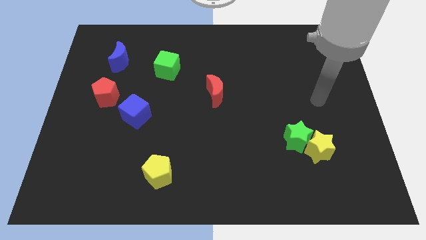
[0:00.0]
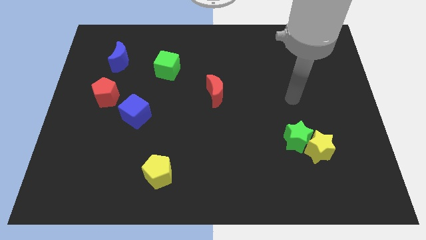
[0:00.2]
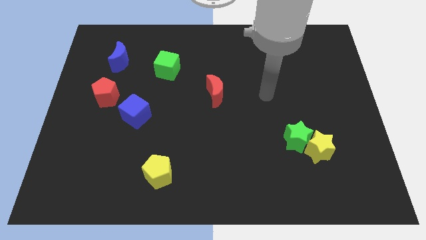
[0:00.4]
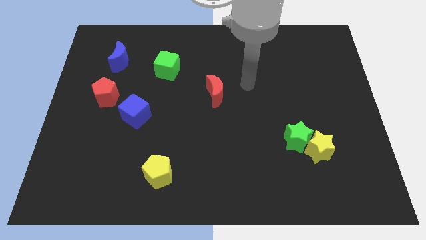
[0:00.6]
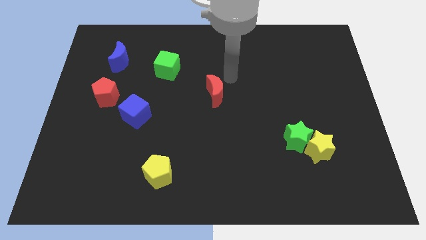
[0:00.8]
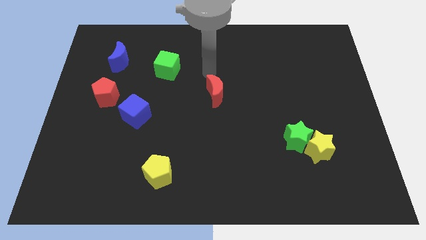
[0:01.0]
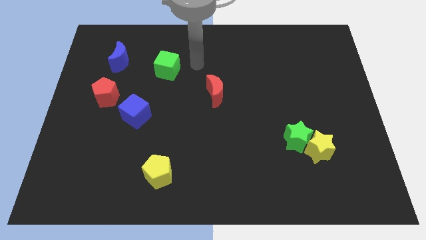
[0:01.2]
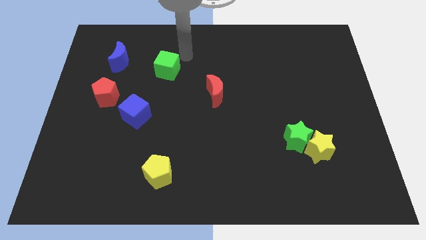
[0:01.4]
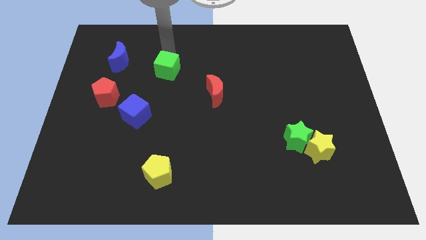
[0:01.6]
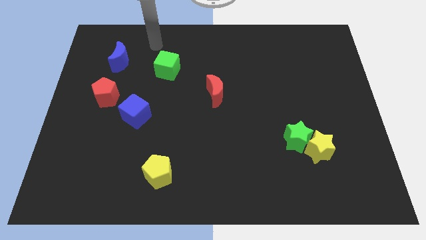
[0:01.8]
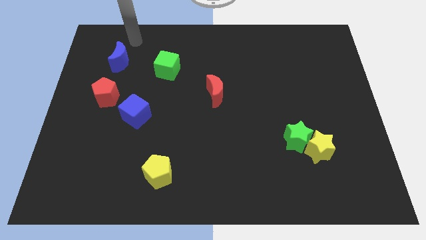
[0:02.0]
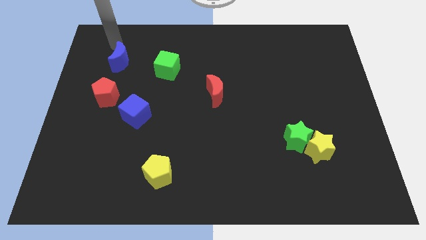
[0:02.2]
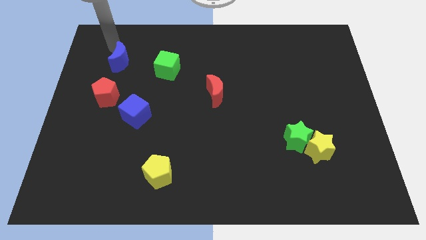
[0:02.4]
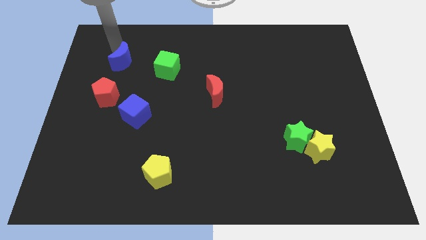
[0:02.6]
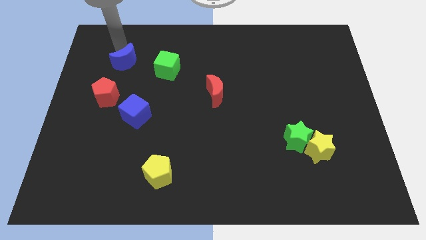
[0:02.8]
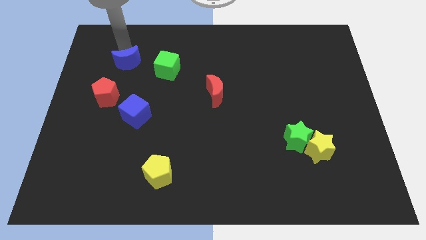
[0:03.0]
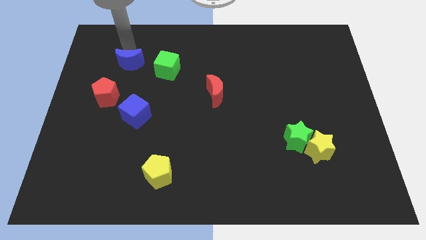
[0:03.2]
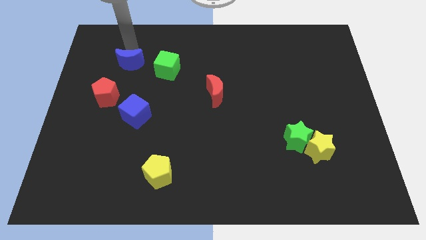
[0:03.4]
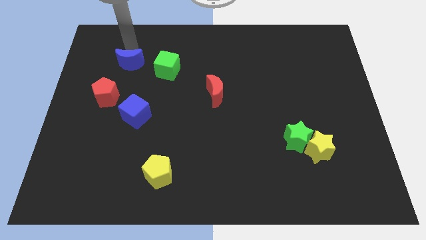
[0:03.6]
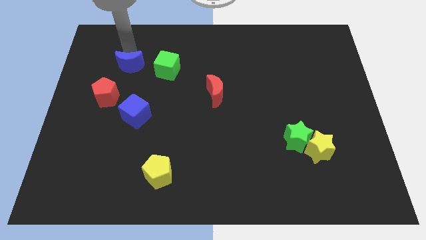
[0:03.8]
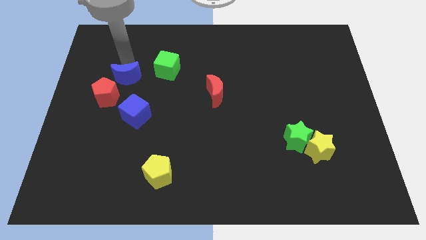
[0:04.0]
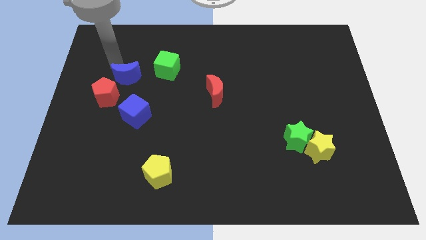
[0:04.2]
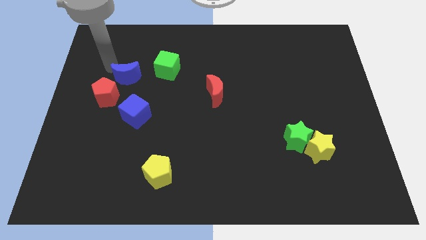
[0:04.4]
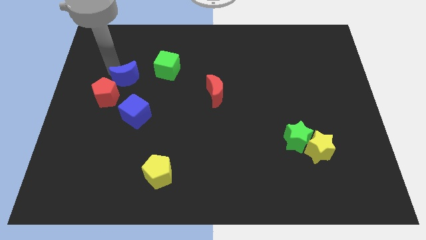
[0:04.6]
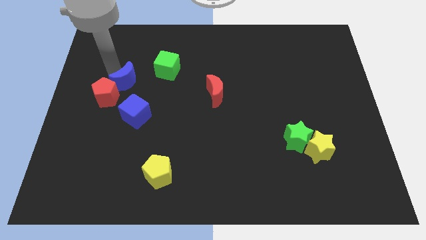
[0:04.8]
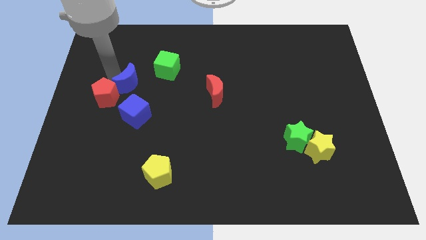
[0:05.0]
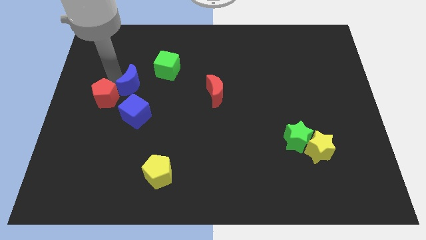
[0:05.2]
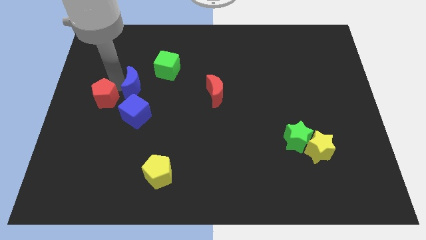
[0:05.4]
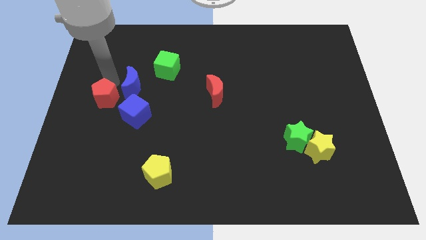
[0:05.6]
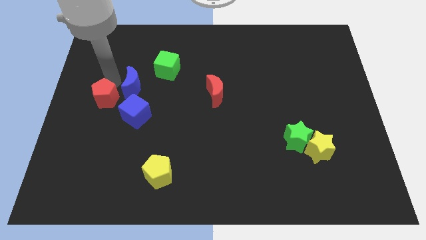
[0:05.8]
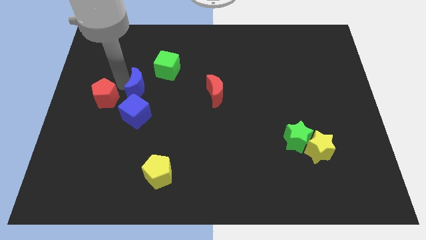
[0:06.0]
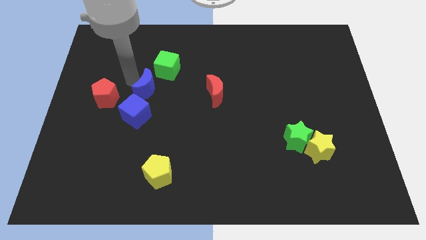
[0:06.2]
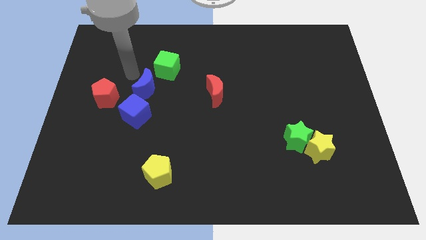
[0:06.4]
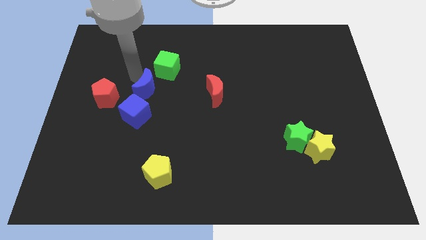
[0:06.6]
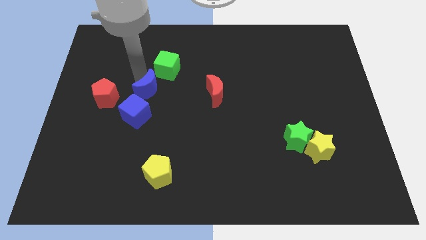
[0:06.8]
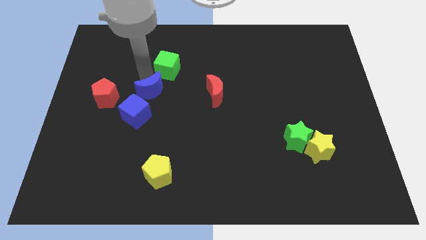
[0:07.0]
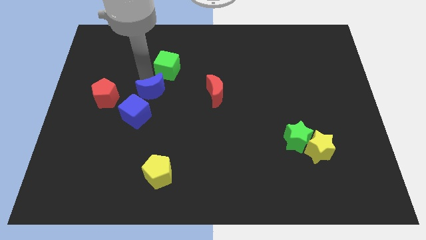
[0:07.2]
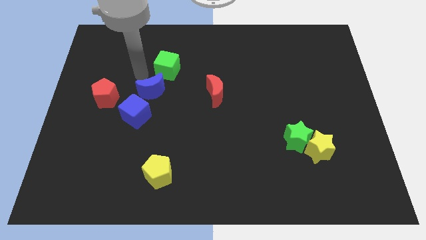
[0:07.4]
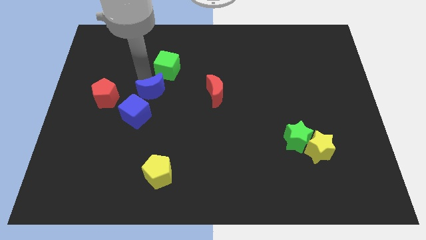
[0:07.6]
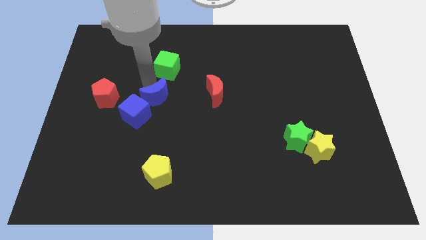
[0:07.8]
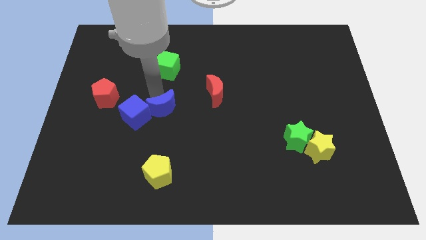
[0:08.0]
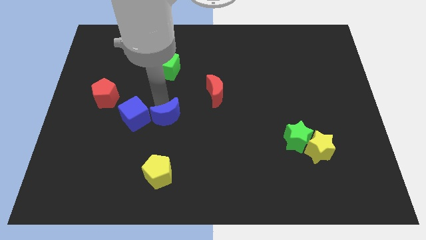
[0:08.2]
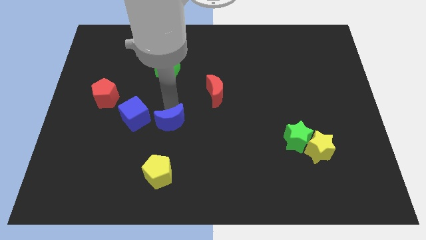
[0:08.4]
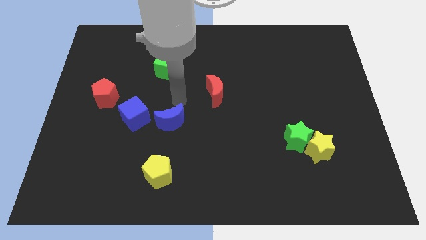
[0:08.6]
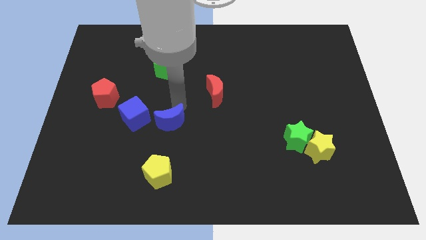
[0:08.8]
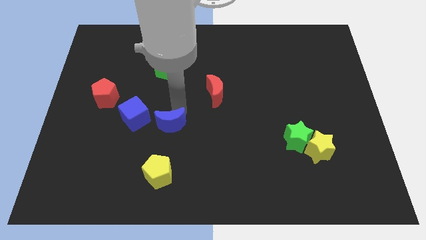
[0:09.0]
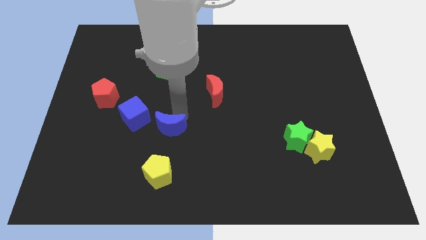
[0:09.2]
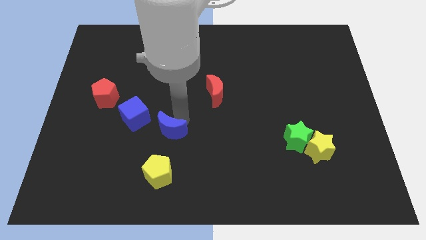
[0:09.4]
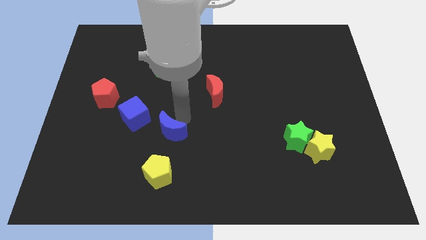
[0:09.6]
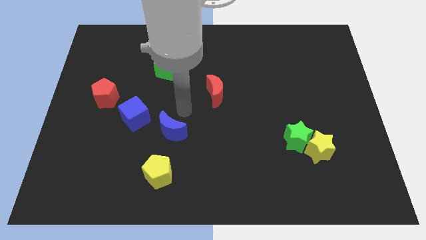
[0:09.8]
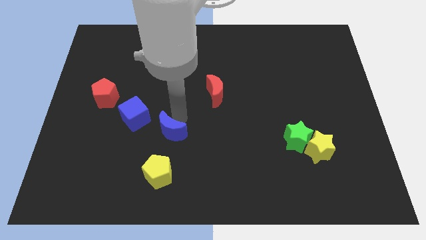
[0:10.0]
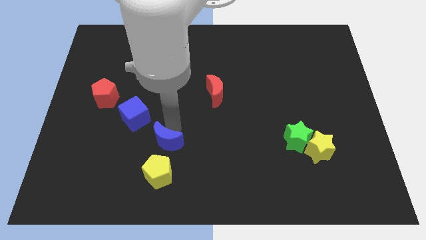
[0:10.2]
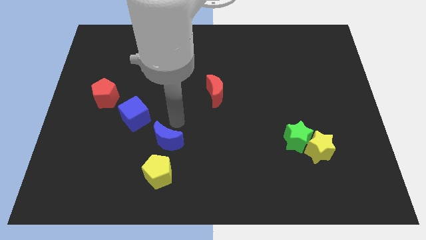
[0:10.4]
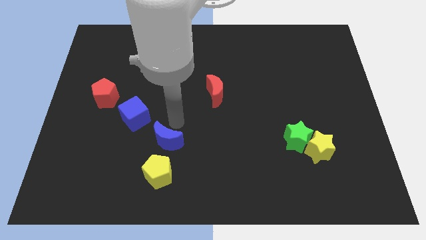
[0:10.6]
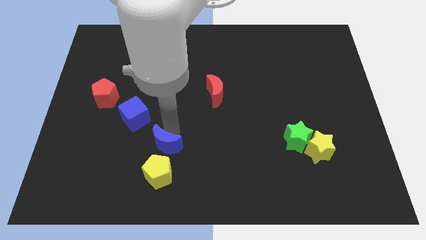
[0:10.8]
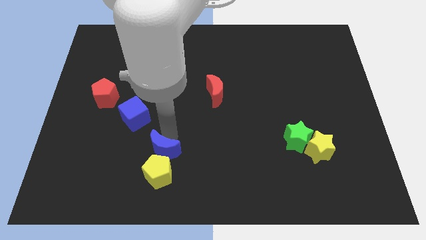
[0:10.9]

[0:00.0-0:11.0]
move the blue moon close to the yellow pentagon

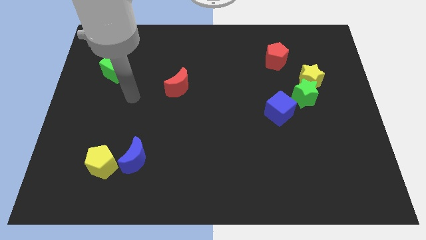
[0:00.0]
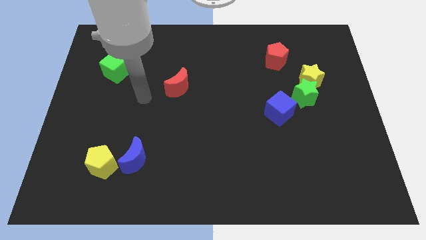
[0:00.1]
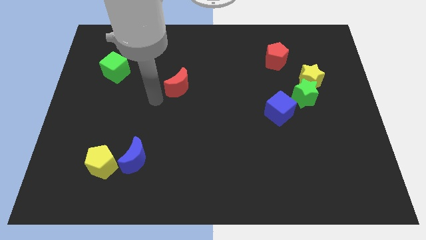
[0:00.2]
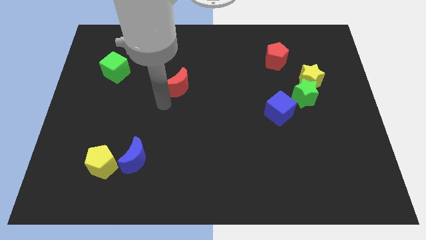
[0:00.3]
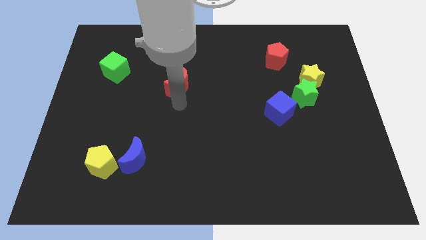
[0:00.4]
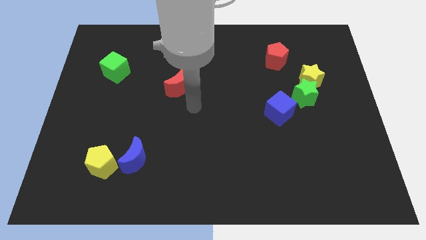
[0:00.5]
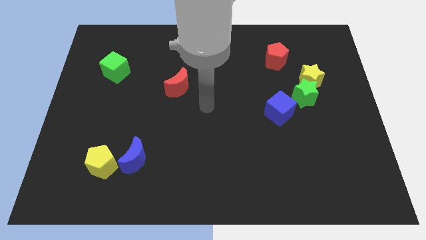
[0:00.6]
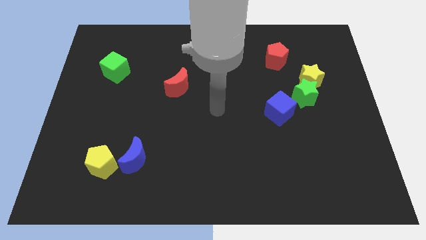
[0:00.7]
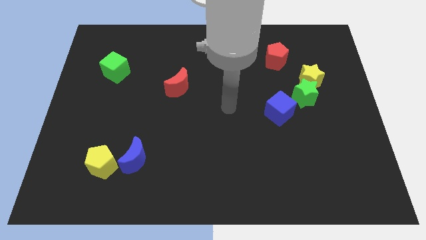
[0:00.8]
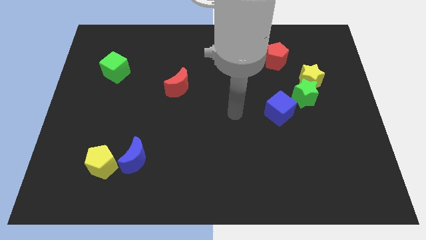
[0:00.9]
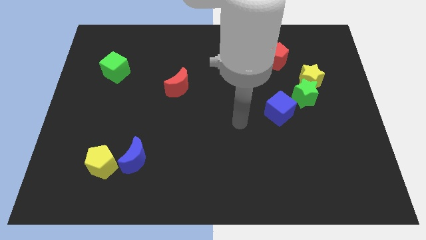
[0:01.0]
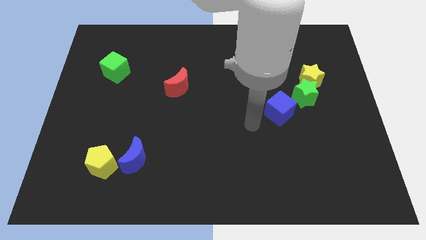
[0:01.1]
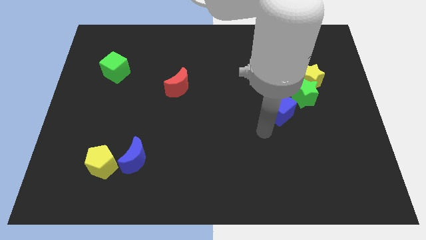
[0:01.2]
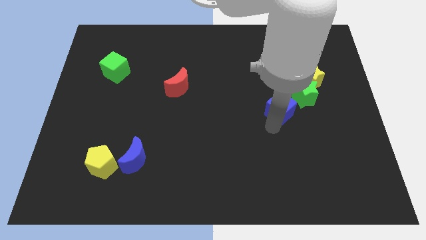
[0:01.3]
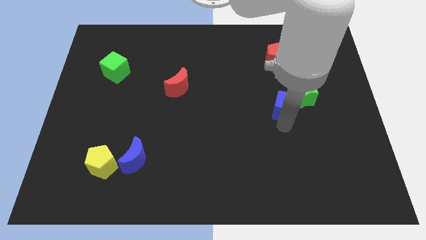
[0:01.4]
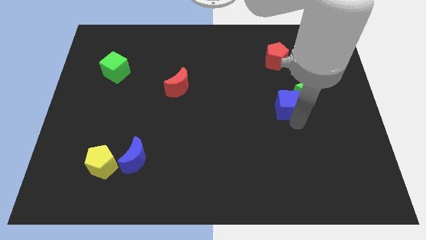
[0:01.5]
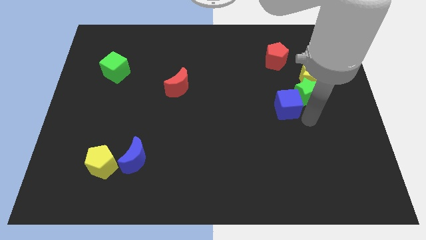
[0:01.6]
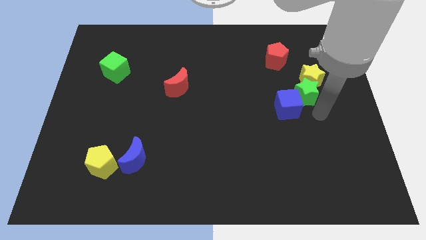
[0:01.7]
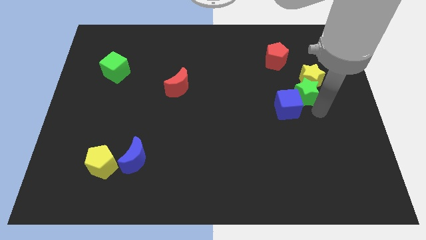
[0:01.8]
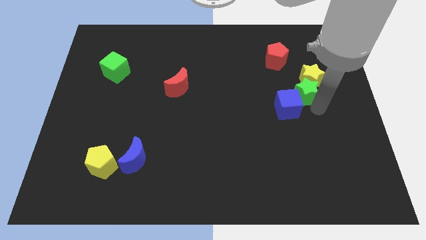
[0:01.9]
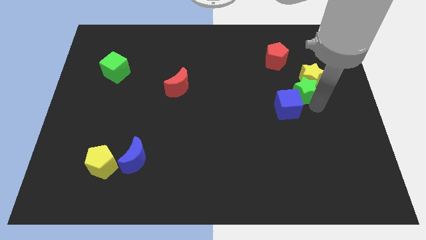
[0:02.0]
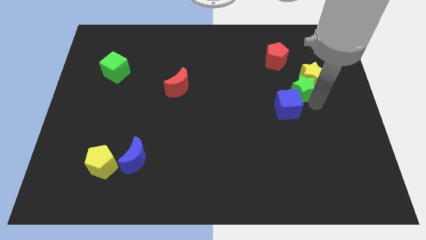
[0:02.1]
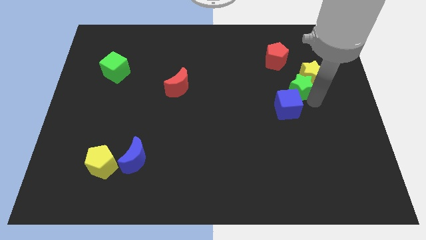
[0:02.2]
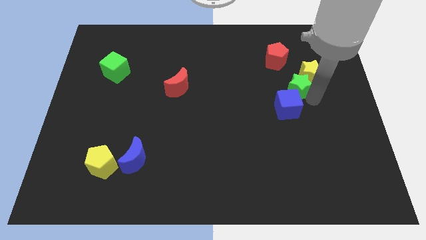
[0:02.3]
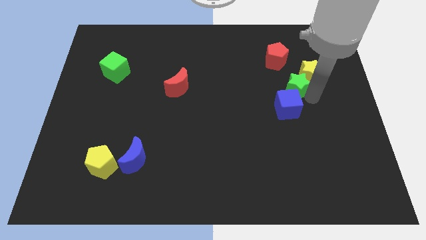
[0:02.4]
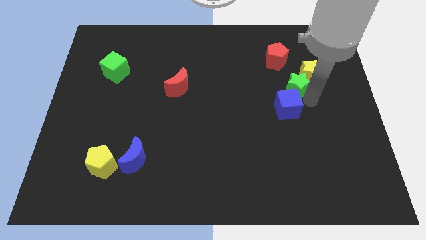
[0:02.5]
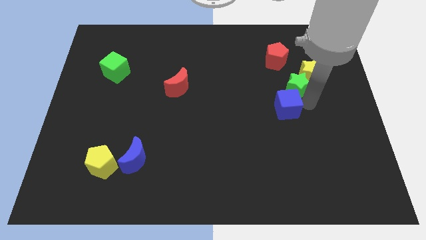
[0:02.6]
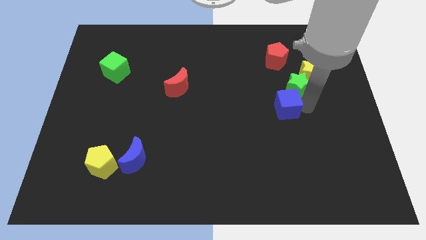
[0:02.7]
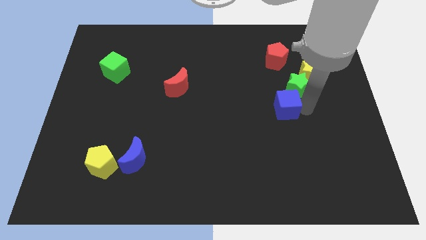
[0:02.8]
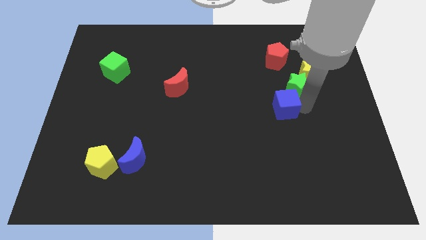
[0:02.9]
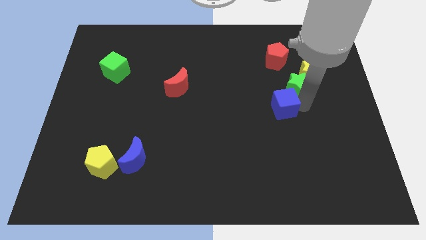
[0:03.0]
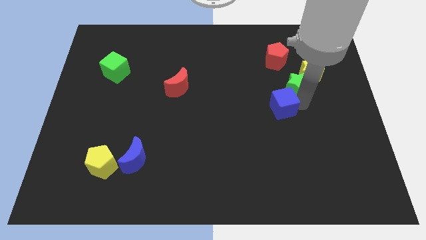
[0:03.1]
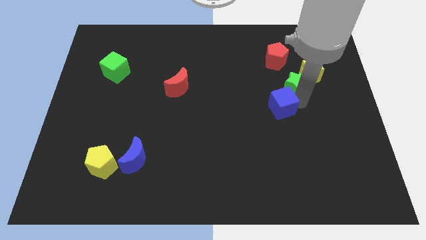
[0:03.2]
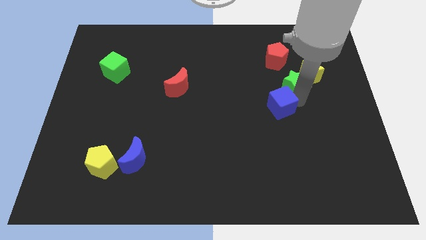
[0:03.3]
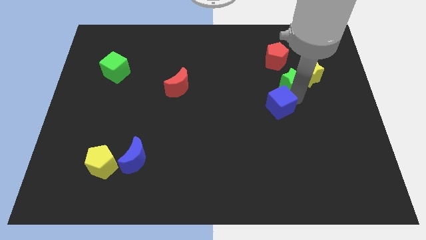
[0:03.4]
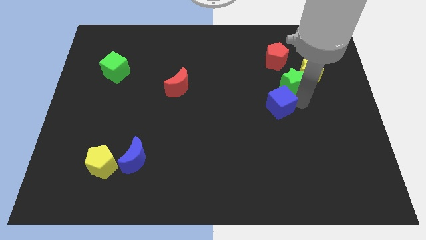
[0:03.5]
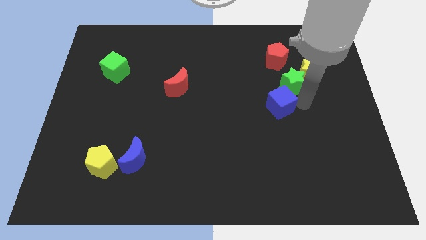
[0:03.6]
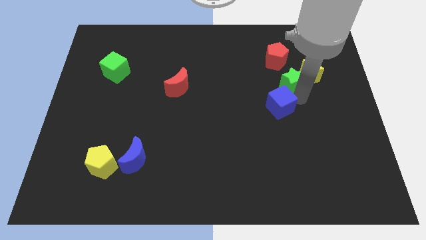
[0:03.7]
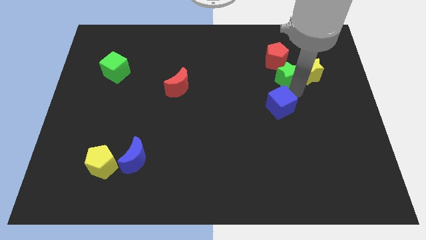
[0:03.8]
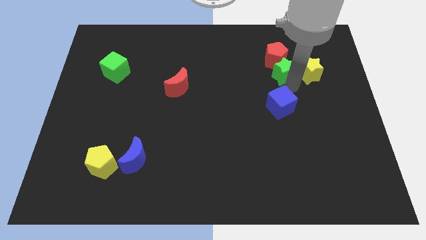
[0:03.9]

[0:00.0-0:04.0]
slide the green star close to the red pentagon
